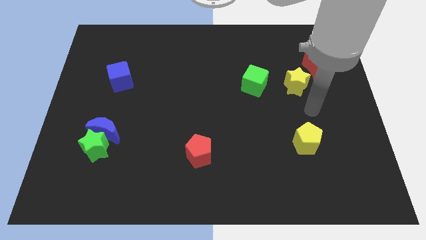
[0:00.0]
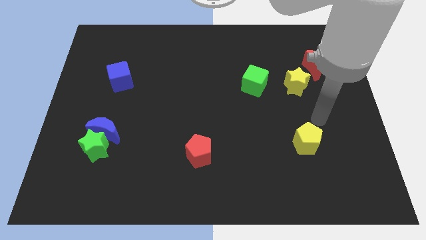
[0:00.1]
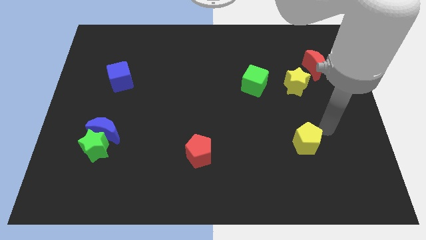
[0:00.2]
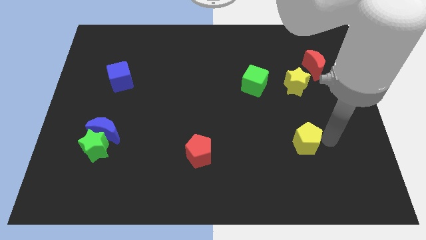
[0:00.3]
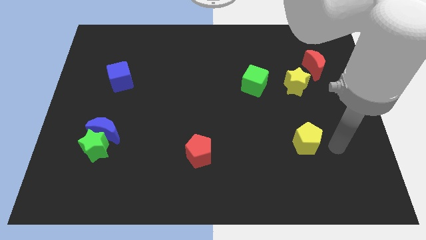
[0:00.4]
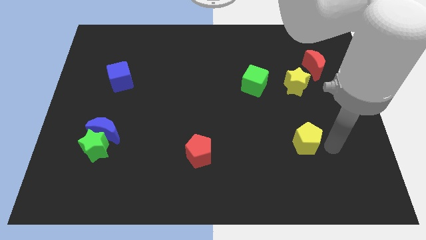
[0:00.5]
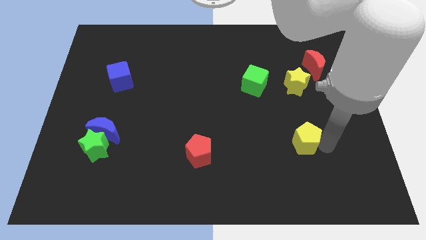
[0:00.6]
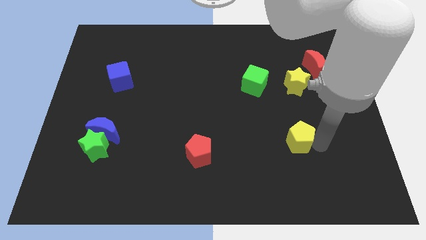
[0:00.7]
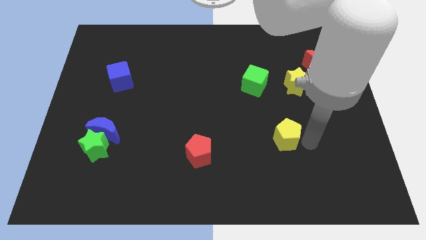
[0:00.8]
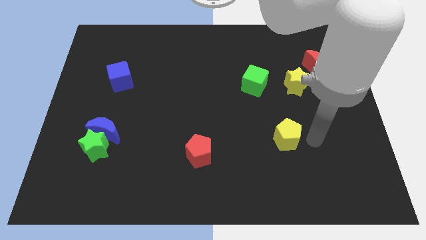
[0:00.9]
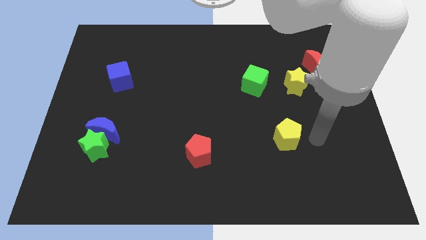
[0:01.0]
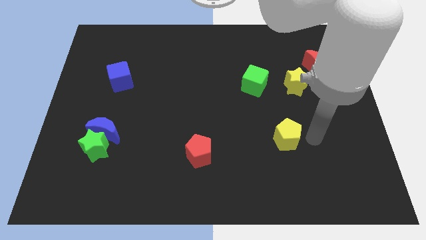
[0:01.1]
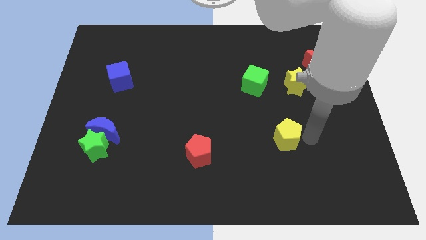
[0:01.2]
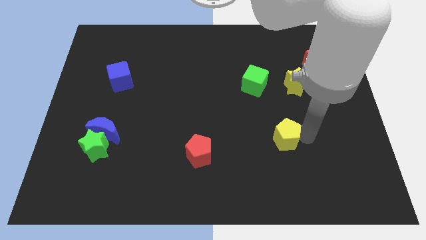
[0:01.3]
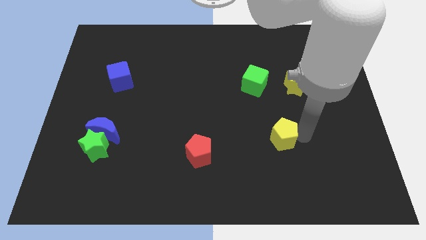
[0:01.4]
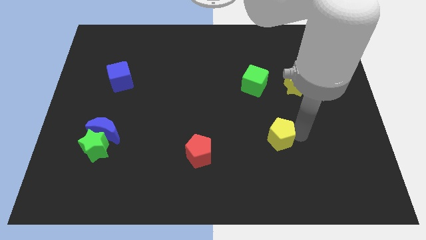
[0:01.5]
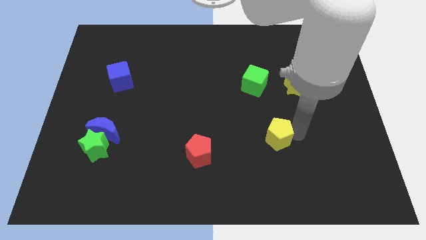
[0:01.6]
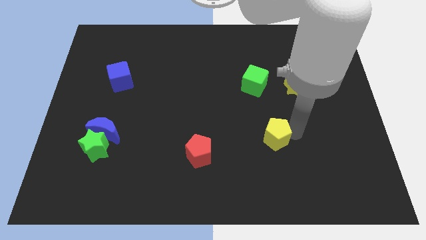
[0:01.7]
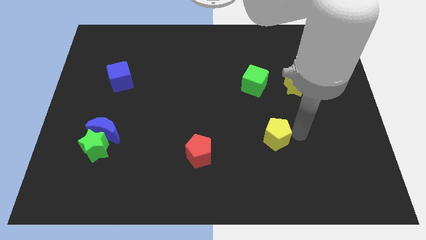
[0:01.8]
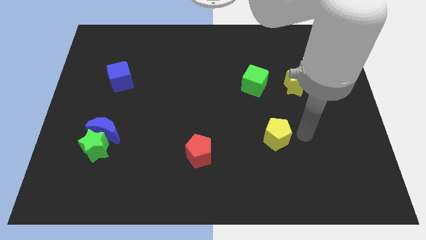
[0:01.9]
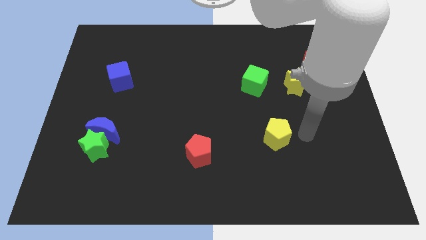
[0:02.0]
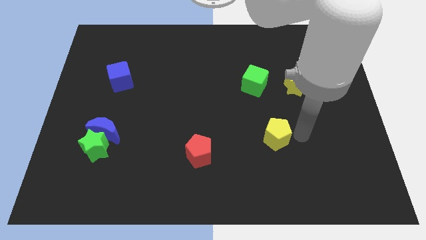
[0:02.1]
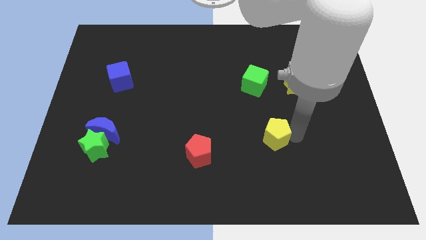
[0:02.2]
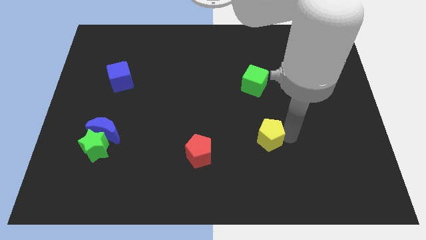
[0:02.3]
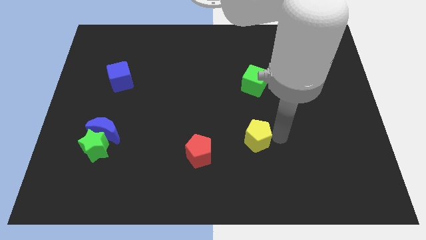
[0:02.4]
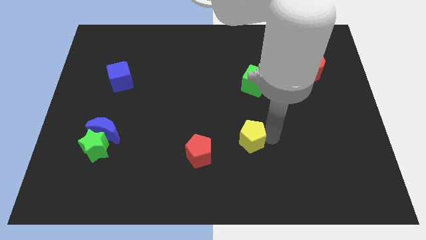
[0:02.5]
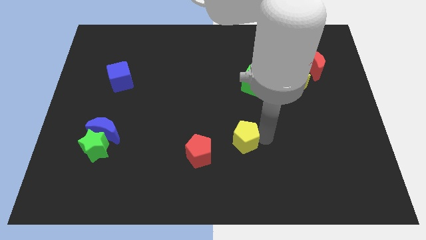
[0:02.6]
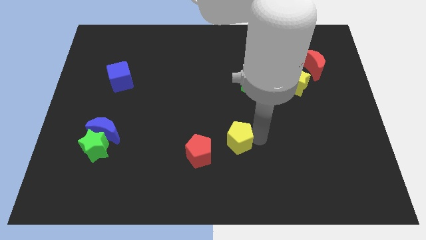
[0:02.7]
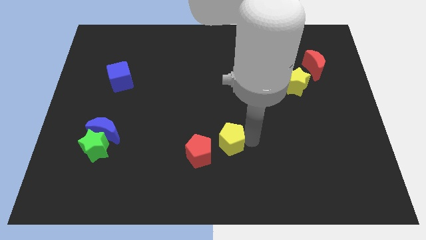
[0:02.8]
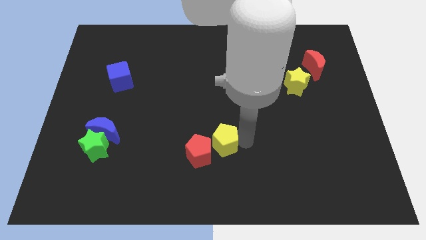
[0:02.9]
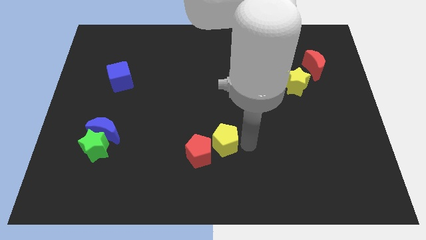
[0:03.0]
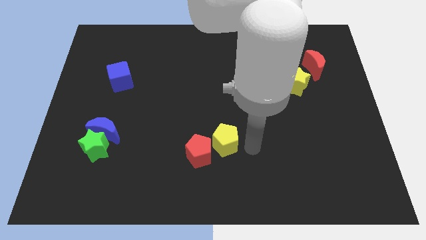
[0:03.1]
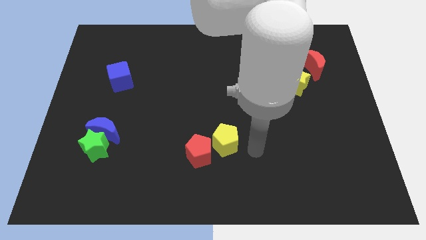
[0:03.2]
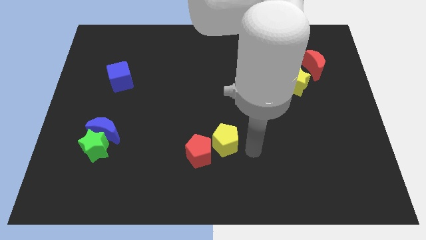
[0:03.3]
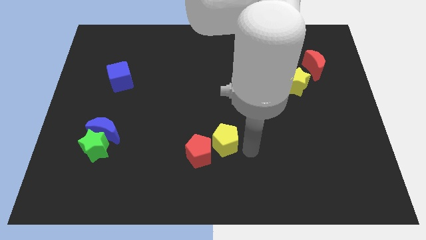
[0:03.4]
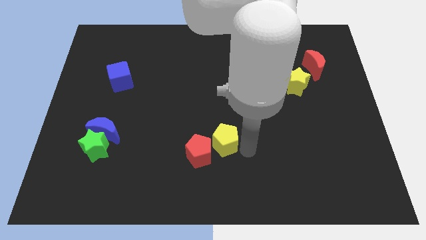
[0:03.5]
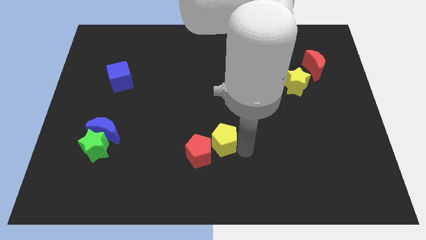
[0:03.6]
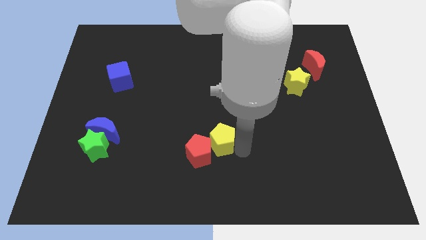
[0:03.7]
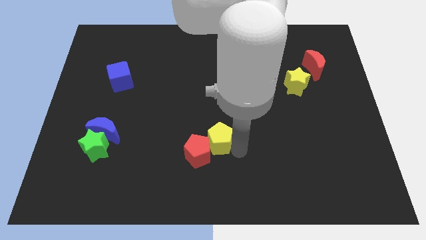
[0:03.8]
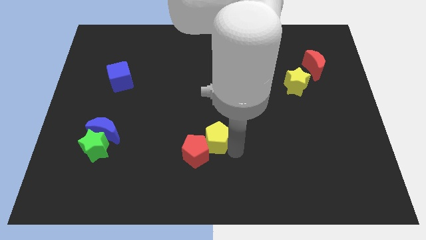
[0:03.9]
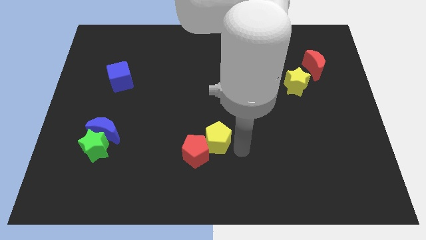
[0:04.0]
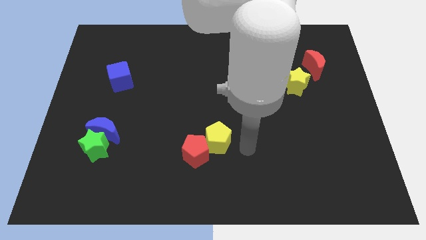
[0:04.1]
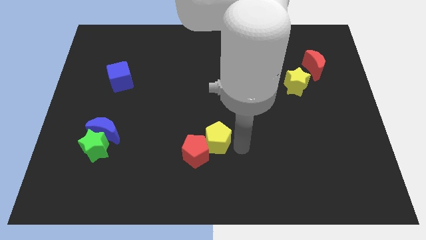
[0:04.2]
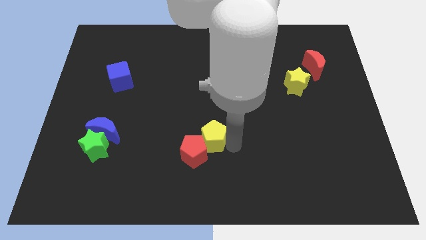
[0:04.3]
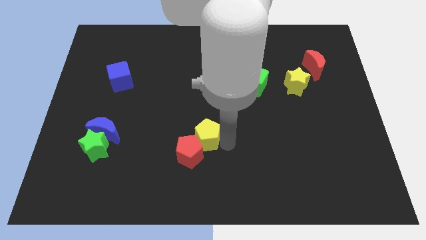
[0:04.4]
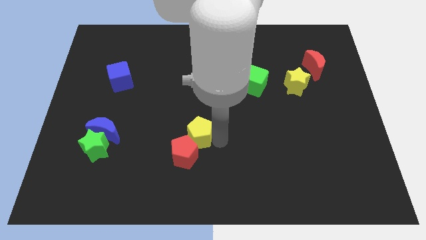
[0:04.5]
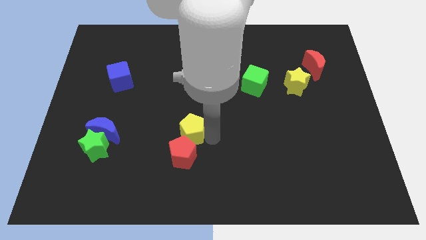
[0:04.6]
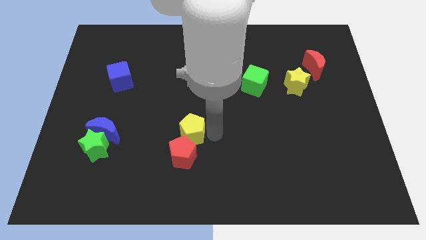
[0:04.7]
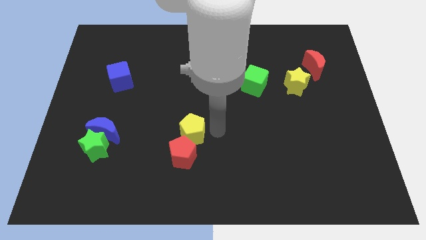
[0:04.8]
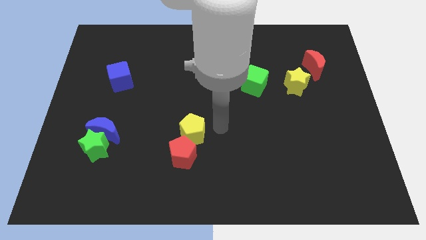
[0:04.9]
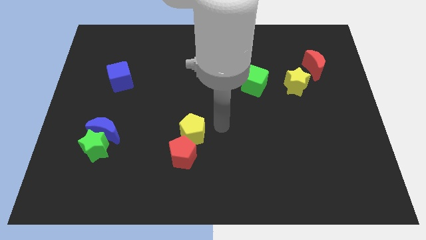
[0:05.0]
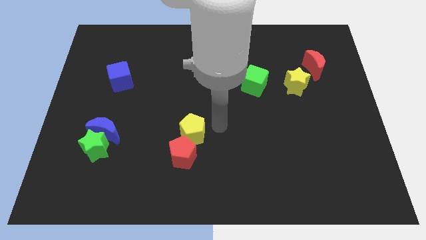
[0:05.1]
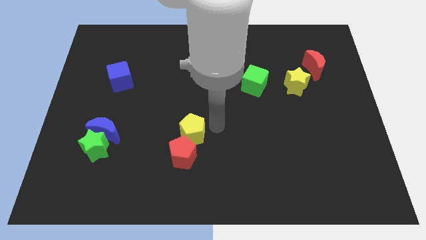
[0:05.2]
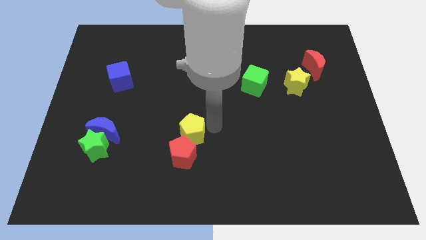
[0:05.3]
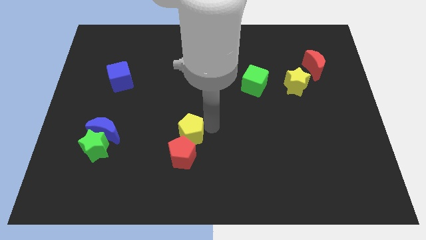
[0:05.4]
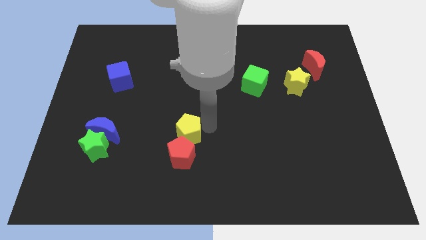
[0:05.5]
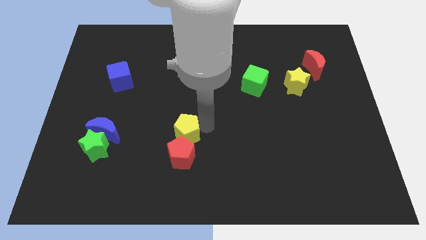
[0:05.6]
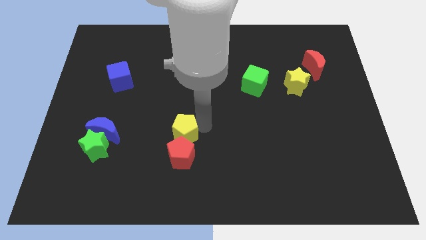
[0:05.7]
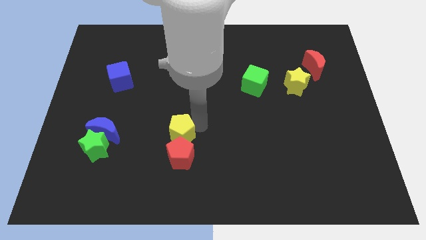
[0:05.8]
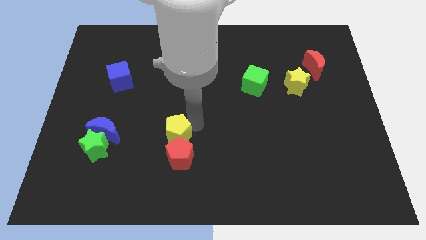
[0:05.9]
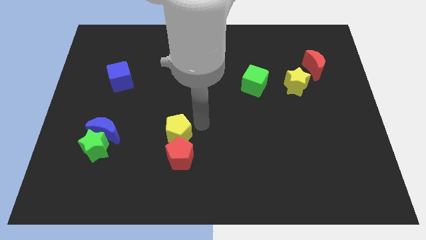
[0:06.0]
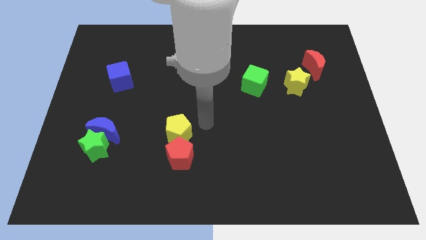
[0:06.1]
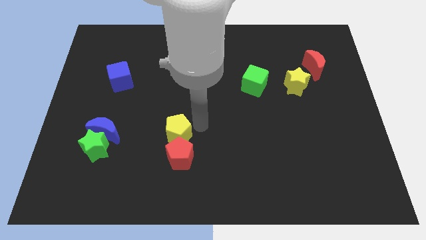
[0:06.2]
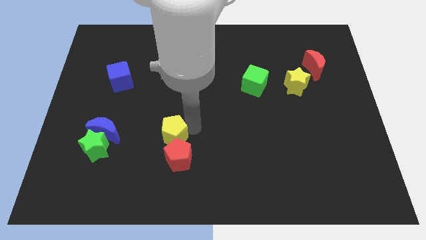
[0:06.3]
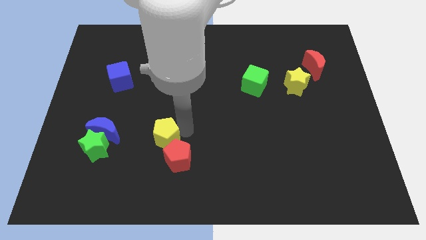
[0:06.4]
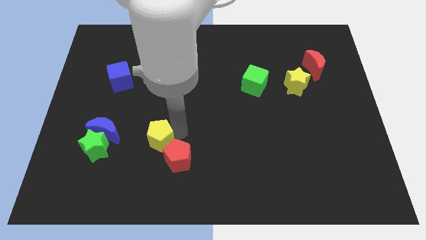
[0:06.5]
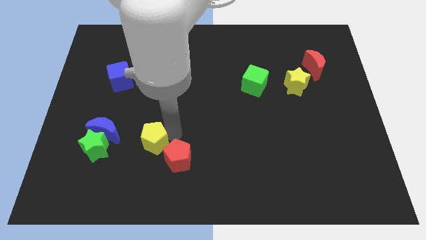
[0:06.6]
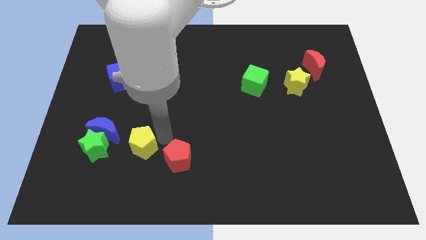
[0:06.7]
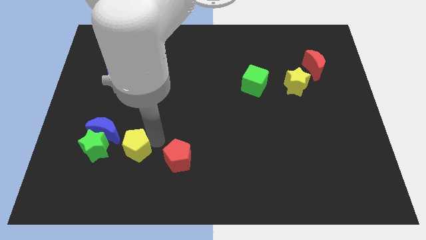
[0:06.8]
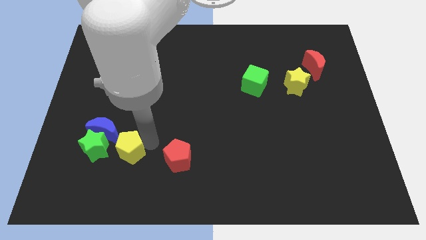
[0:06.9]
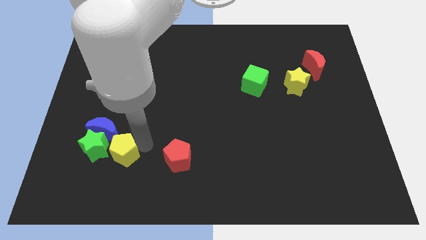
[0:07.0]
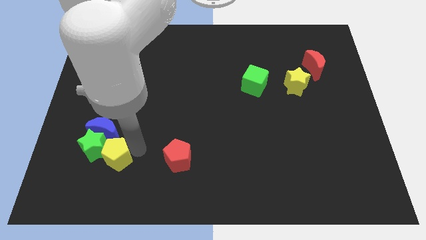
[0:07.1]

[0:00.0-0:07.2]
slide the yellow pentagon towards the green star

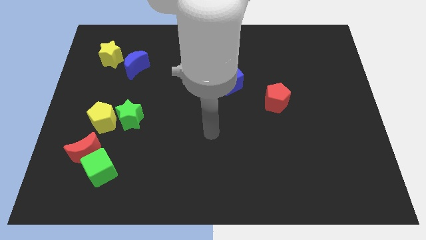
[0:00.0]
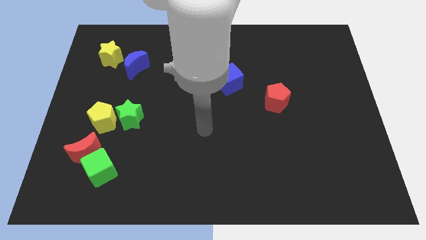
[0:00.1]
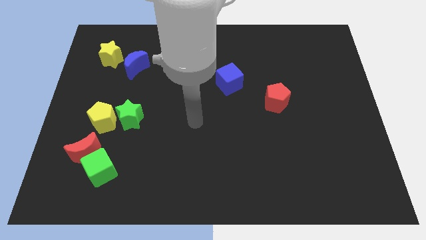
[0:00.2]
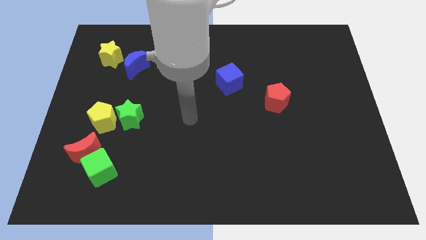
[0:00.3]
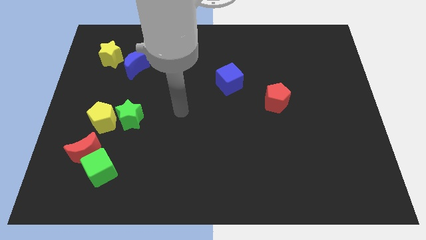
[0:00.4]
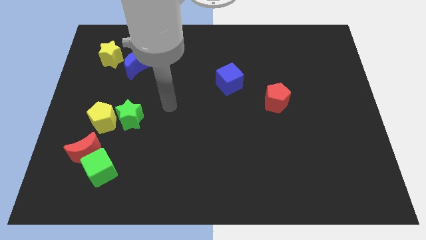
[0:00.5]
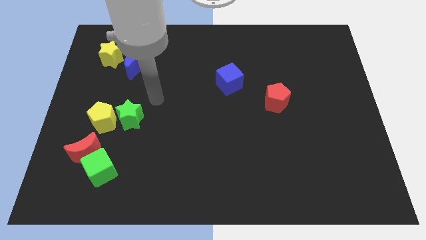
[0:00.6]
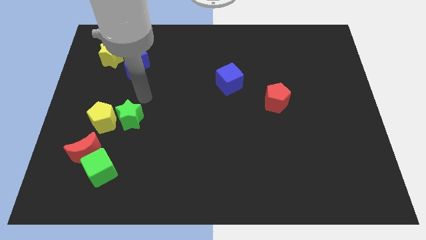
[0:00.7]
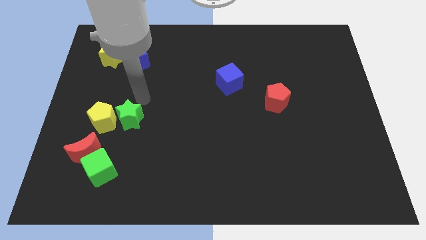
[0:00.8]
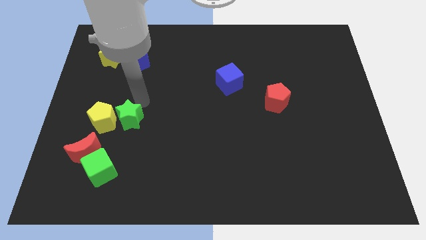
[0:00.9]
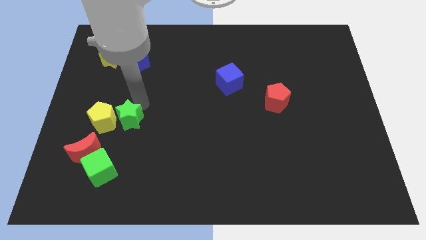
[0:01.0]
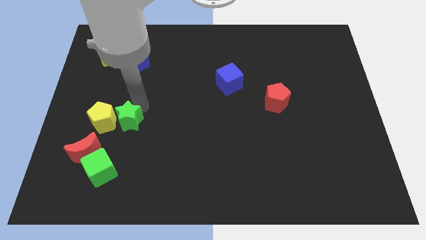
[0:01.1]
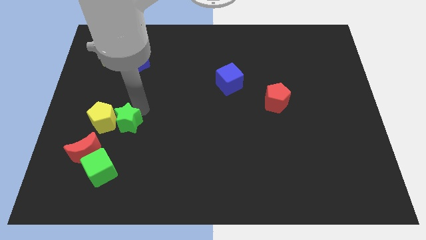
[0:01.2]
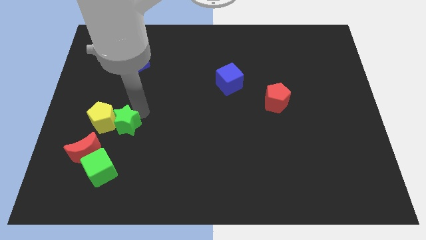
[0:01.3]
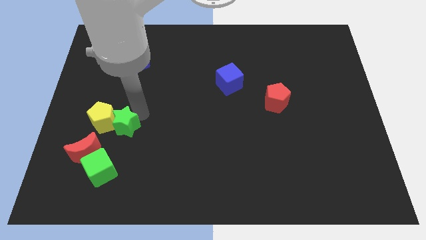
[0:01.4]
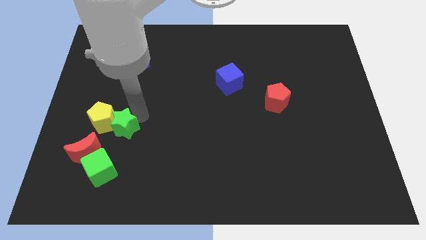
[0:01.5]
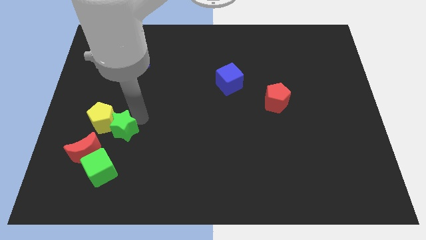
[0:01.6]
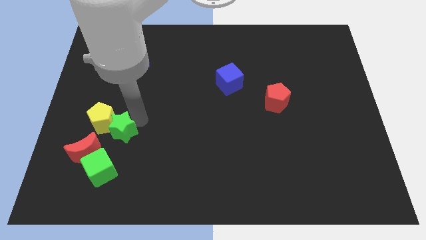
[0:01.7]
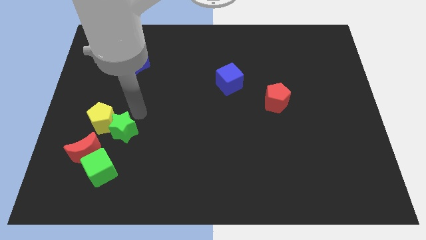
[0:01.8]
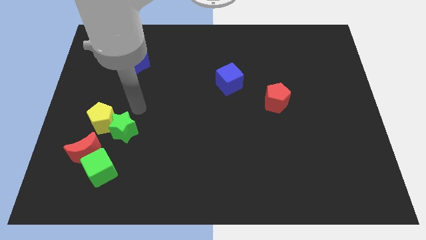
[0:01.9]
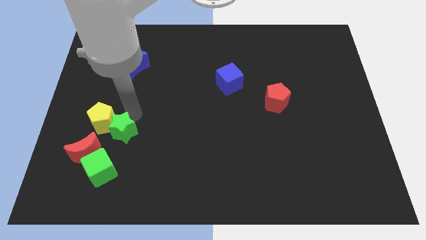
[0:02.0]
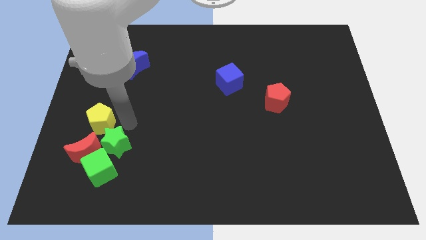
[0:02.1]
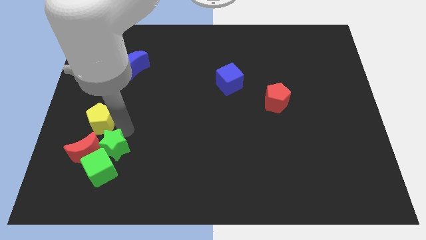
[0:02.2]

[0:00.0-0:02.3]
push the green star towards the green cube
